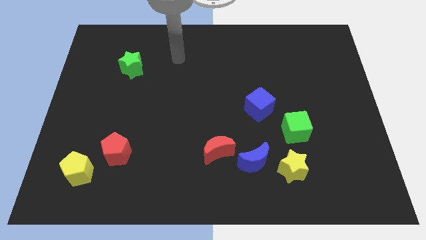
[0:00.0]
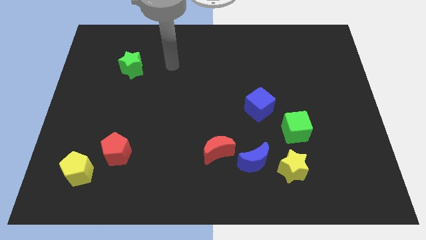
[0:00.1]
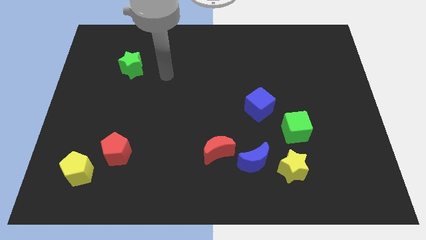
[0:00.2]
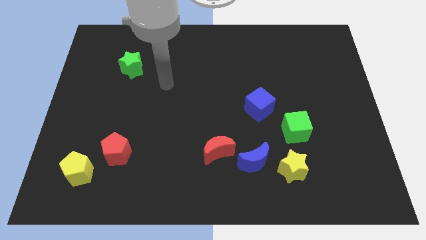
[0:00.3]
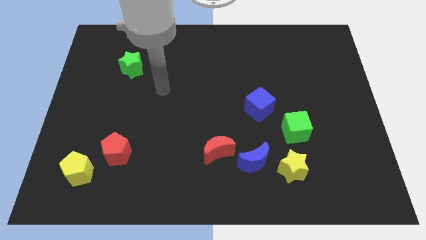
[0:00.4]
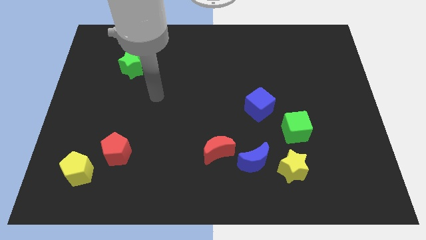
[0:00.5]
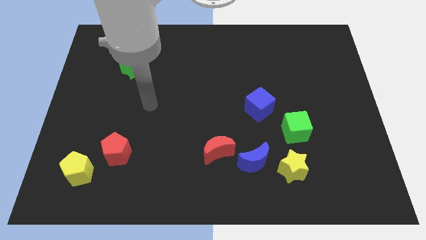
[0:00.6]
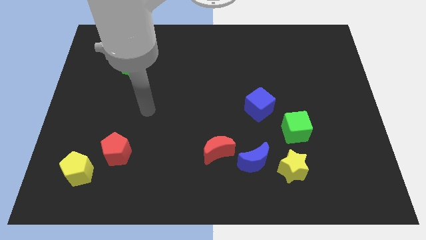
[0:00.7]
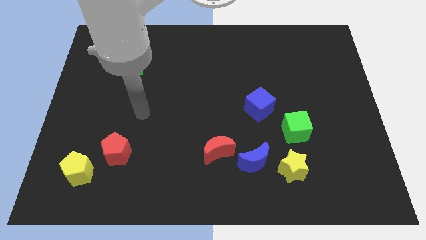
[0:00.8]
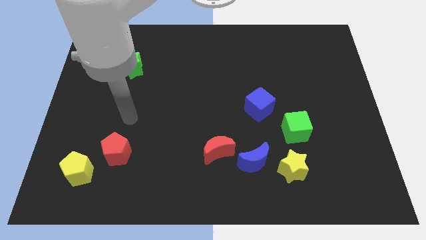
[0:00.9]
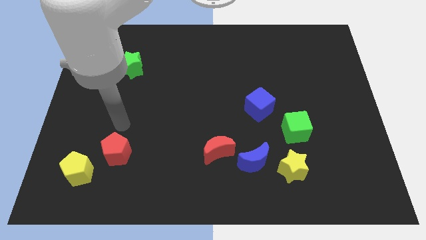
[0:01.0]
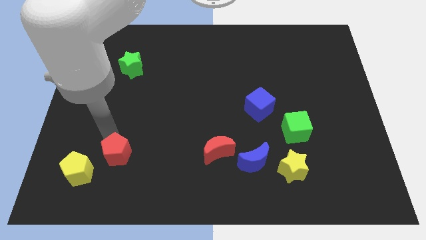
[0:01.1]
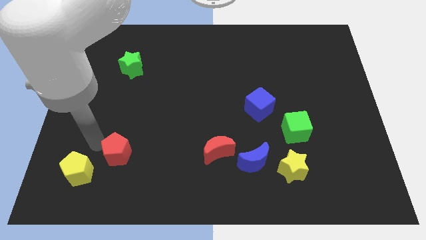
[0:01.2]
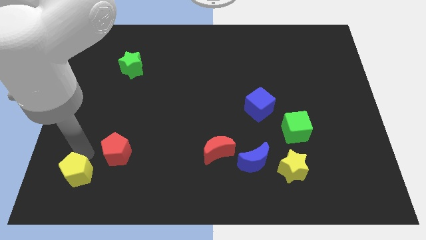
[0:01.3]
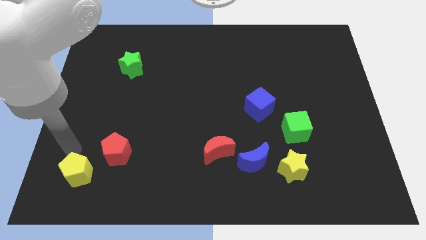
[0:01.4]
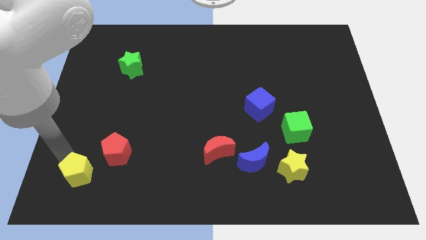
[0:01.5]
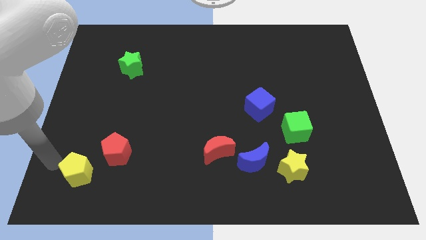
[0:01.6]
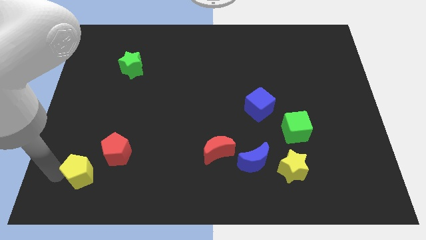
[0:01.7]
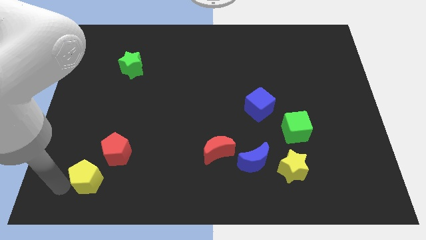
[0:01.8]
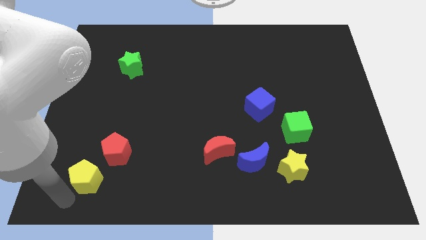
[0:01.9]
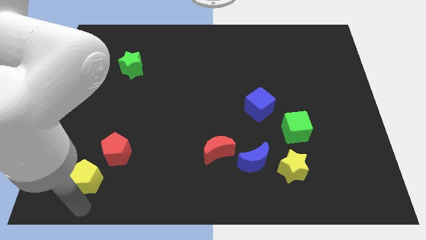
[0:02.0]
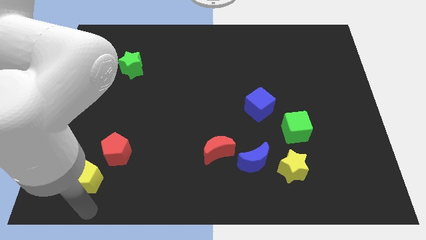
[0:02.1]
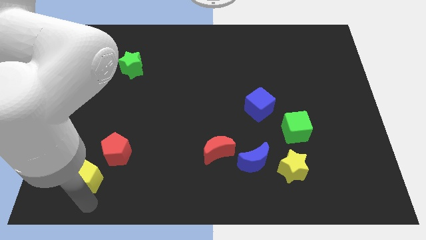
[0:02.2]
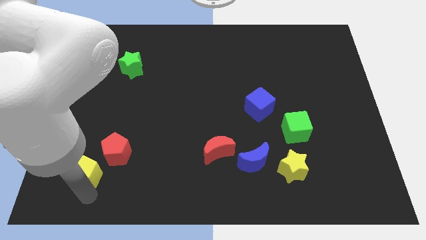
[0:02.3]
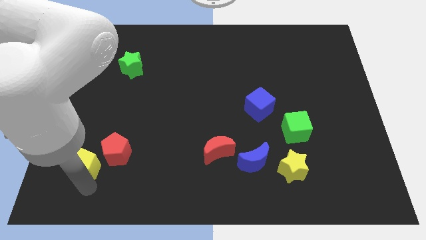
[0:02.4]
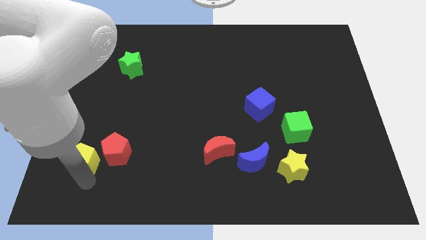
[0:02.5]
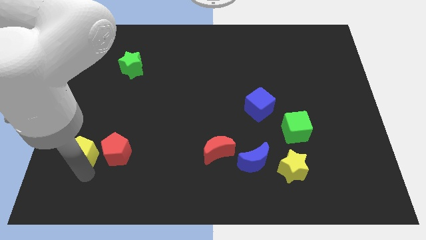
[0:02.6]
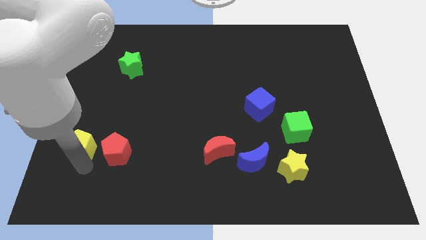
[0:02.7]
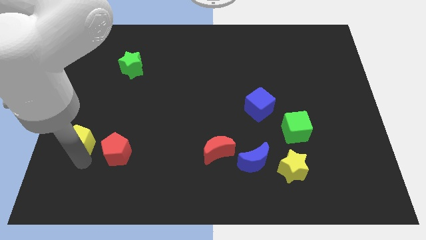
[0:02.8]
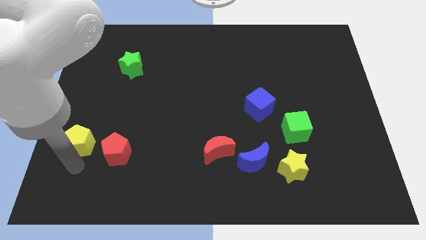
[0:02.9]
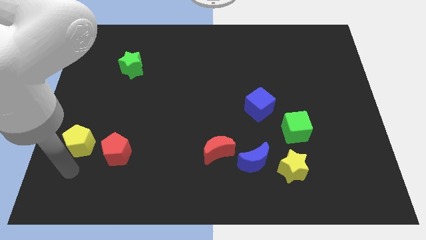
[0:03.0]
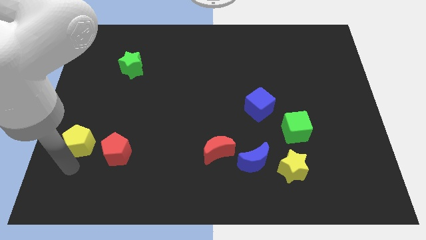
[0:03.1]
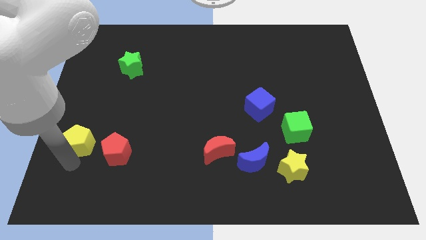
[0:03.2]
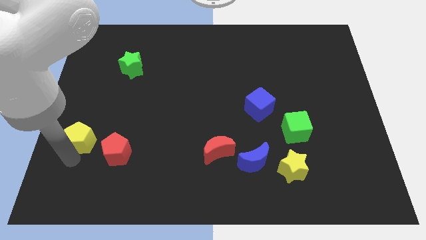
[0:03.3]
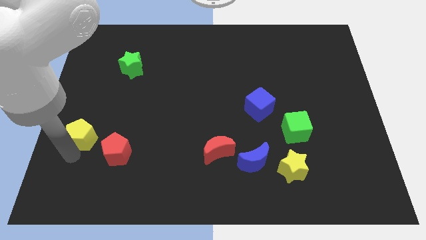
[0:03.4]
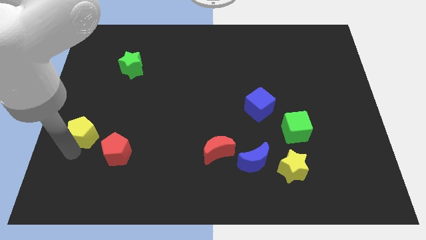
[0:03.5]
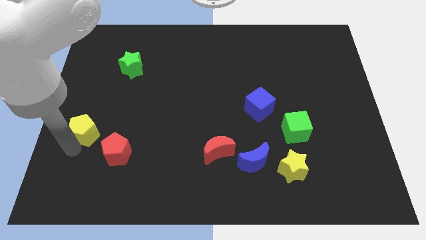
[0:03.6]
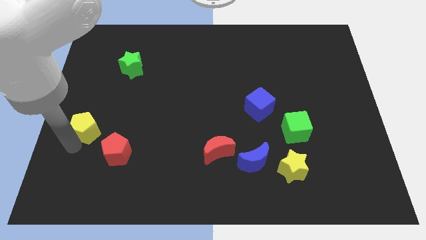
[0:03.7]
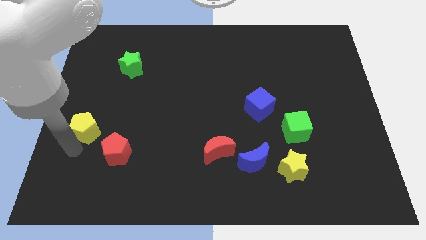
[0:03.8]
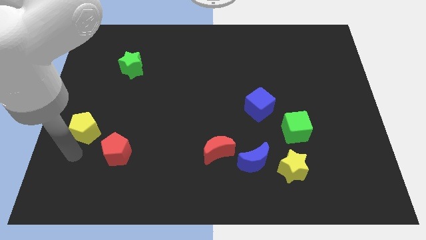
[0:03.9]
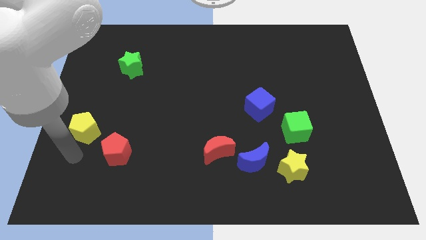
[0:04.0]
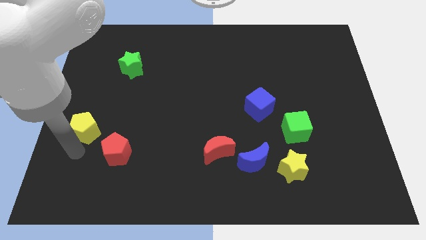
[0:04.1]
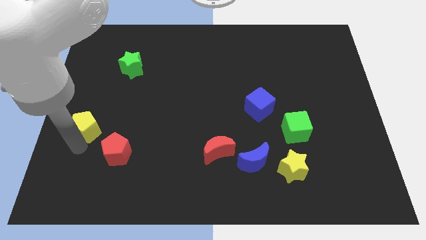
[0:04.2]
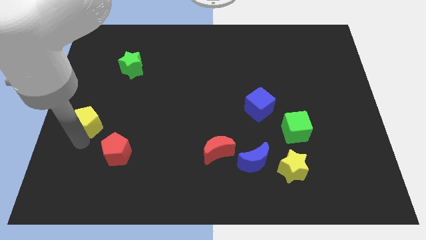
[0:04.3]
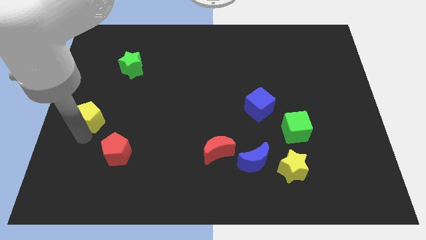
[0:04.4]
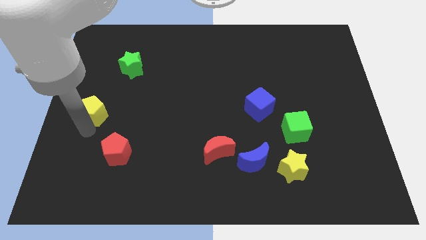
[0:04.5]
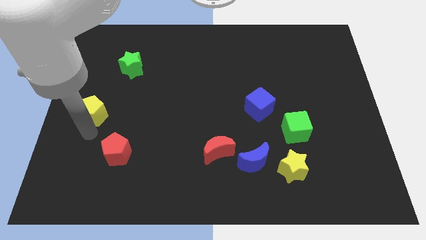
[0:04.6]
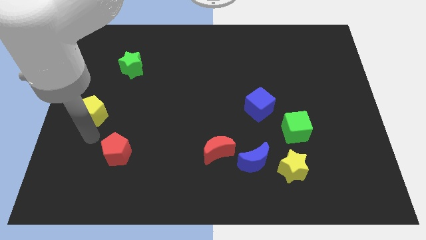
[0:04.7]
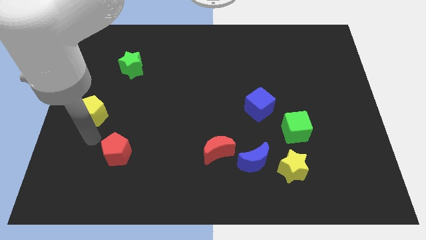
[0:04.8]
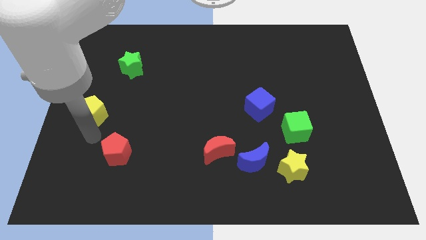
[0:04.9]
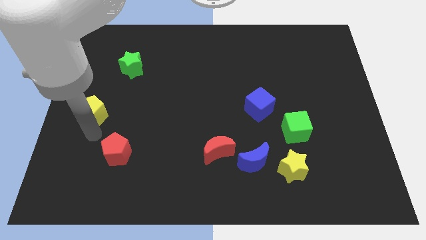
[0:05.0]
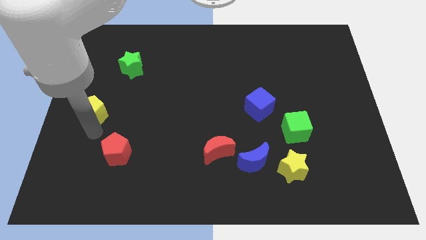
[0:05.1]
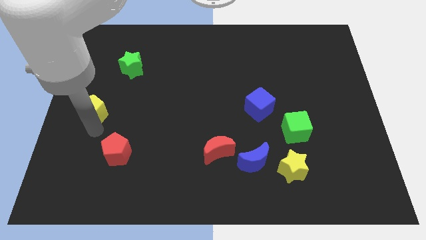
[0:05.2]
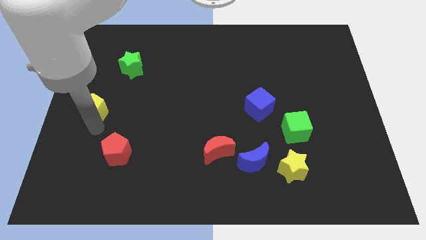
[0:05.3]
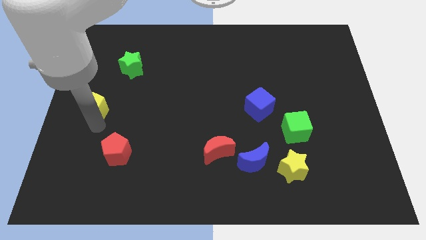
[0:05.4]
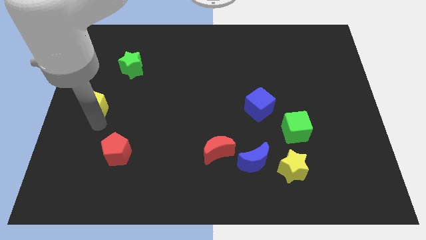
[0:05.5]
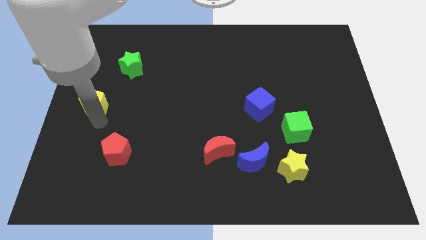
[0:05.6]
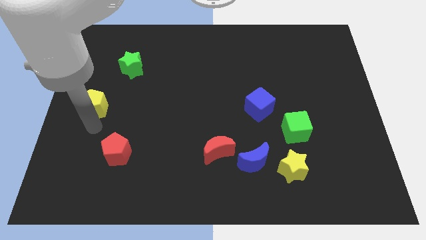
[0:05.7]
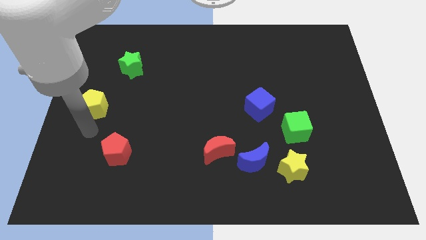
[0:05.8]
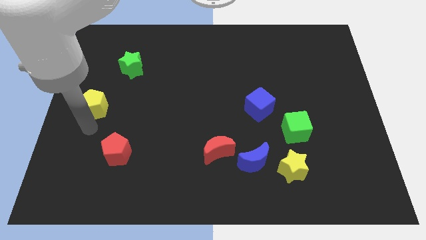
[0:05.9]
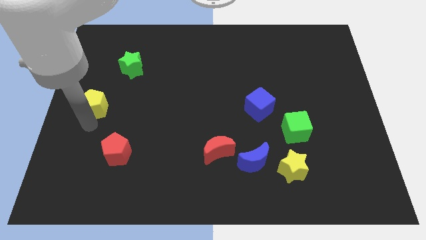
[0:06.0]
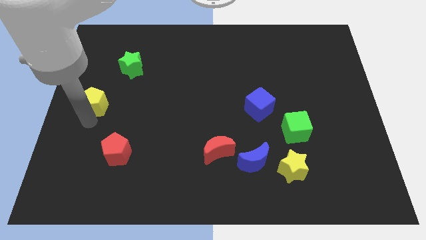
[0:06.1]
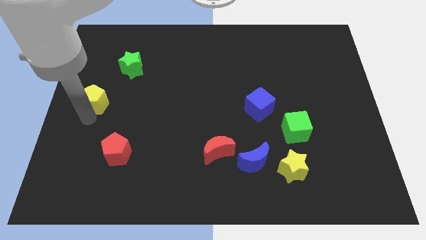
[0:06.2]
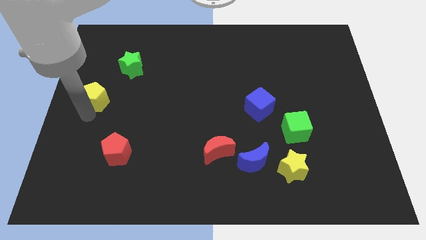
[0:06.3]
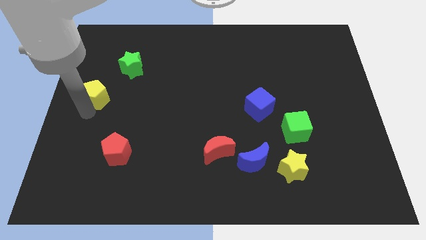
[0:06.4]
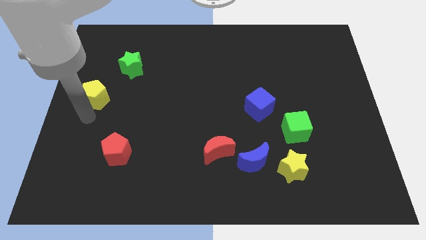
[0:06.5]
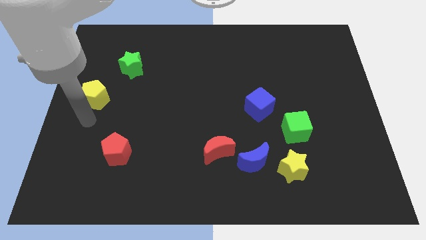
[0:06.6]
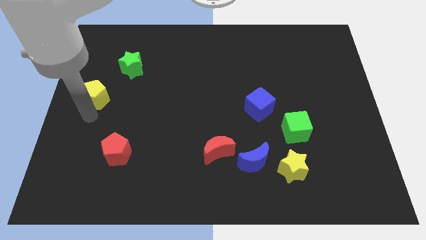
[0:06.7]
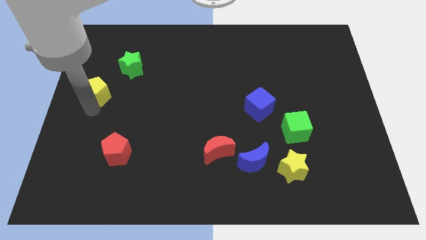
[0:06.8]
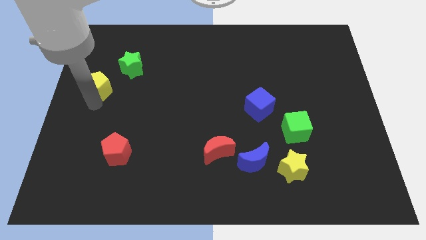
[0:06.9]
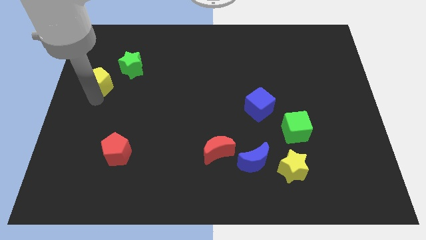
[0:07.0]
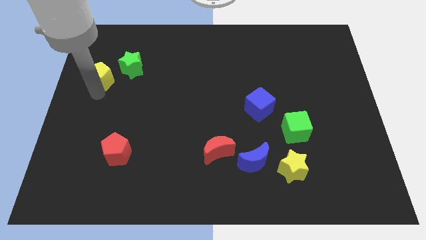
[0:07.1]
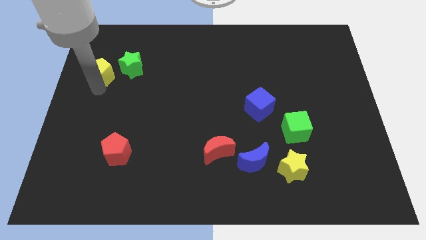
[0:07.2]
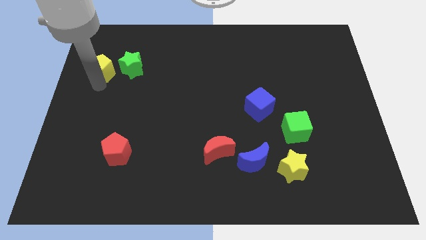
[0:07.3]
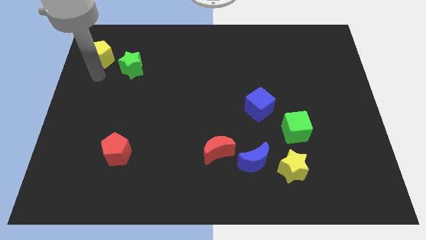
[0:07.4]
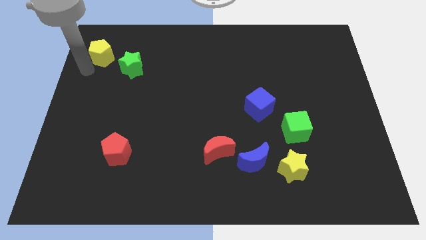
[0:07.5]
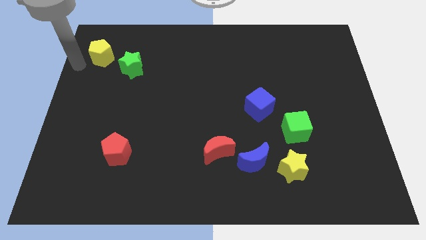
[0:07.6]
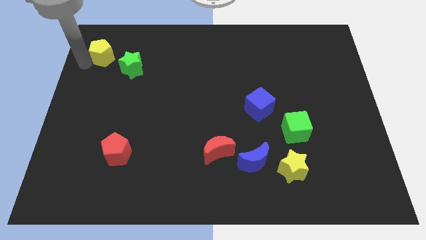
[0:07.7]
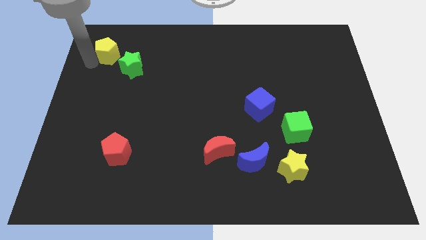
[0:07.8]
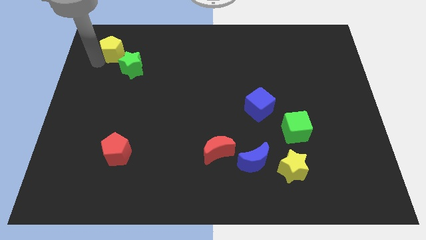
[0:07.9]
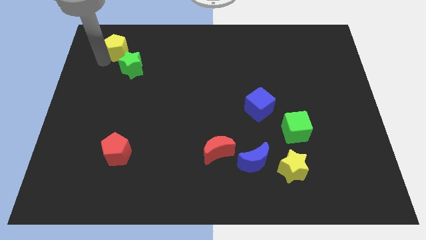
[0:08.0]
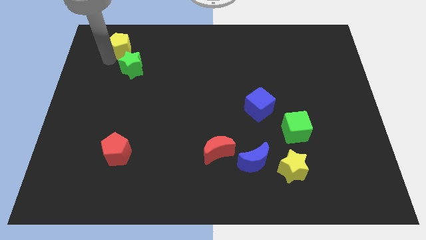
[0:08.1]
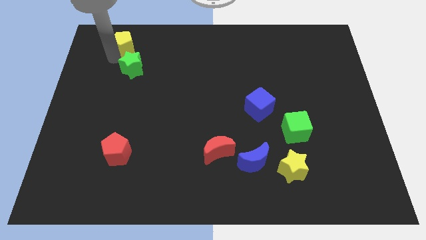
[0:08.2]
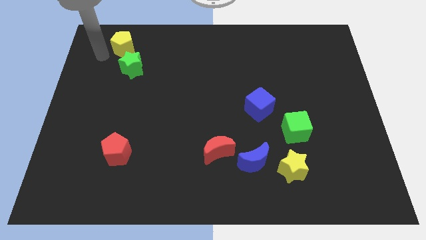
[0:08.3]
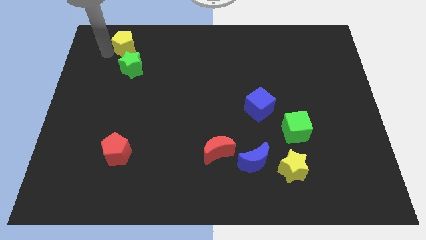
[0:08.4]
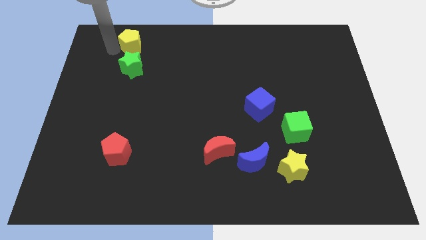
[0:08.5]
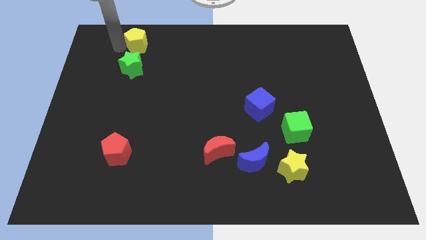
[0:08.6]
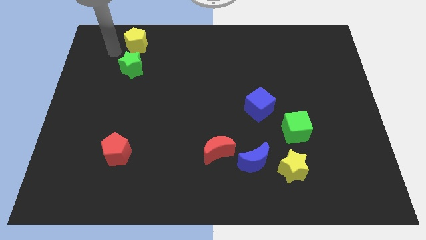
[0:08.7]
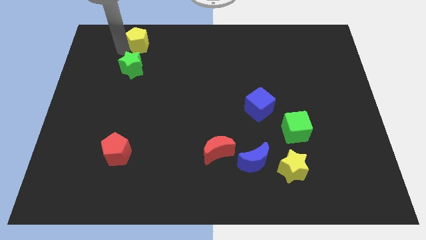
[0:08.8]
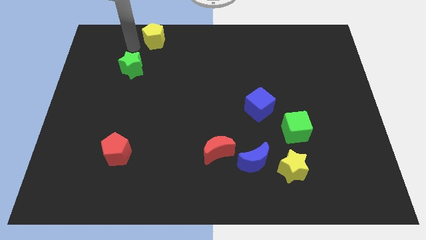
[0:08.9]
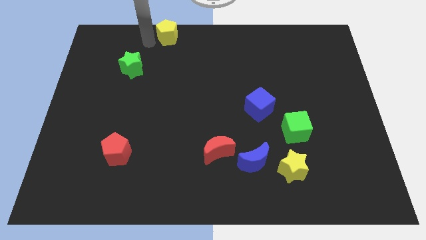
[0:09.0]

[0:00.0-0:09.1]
move the yellow pentagon to the top
